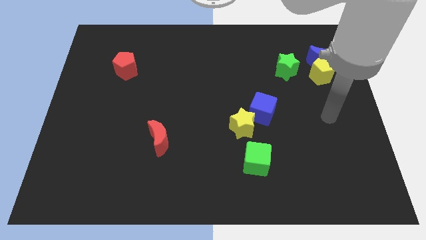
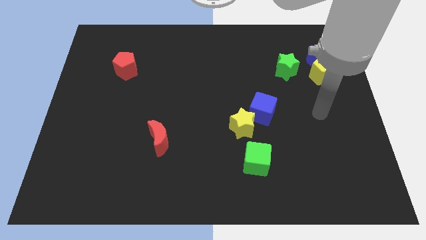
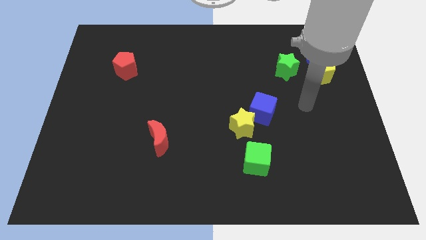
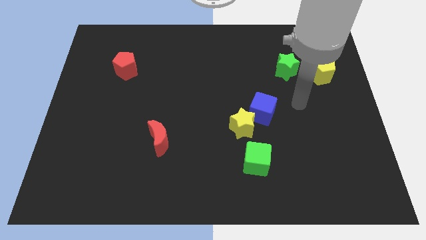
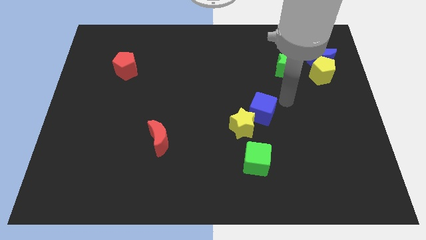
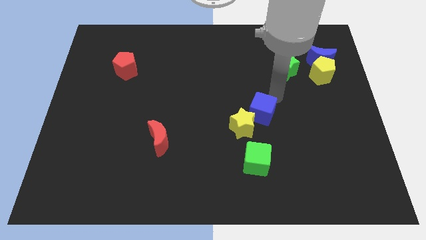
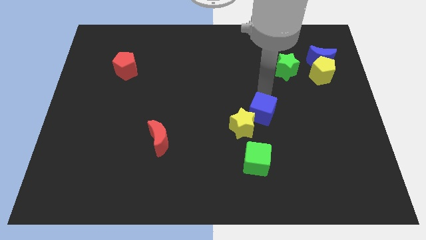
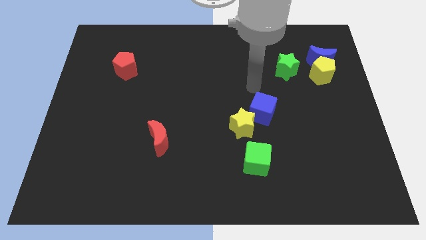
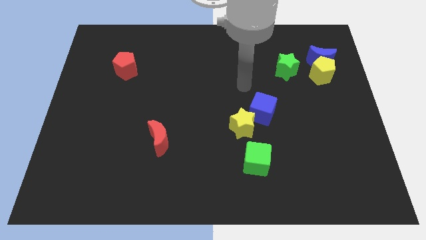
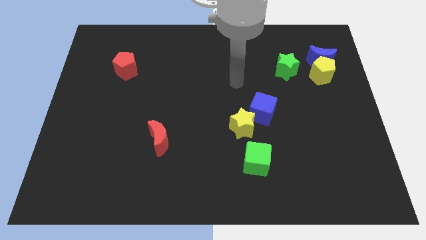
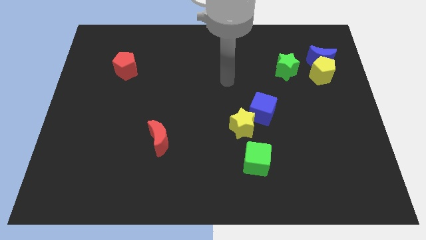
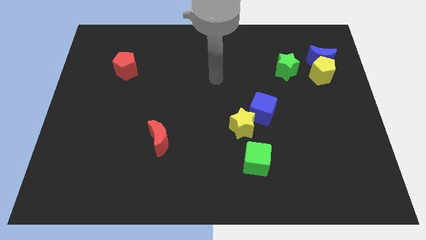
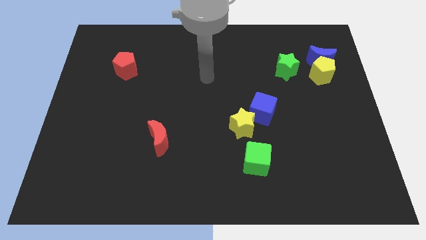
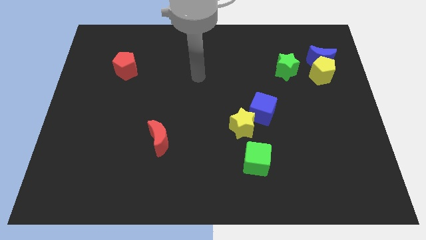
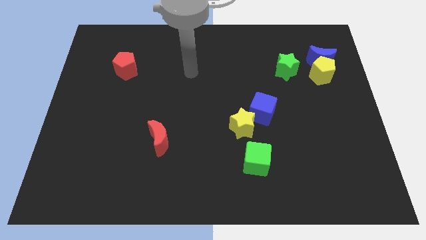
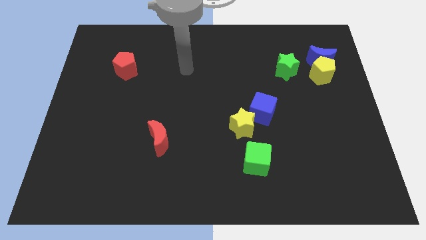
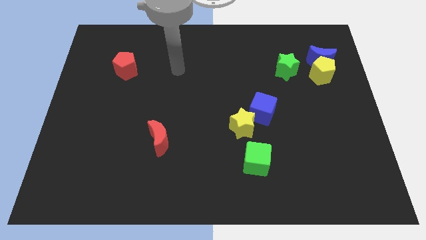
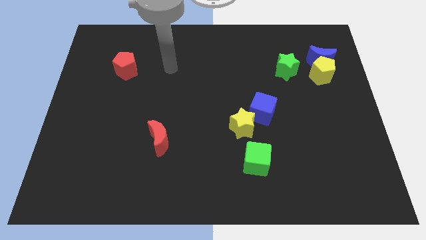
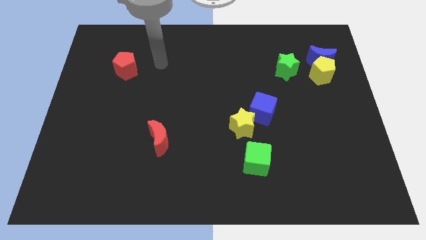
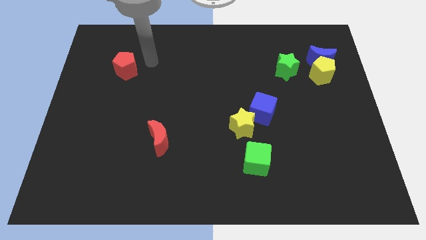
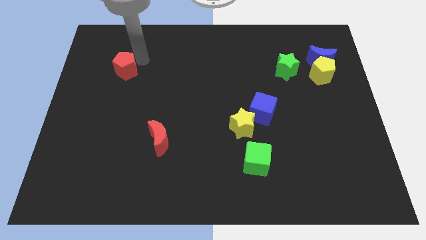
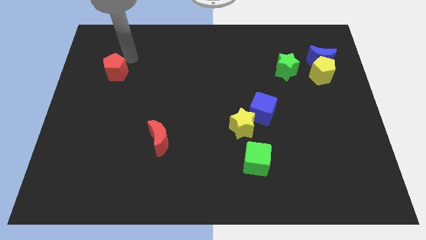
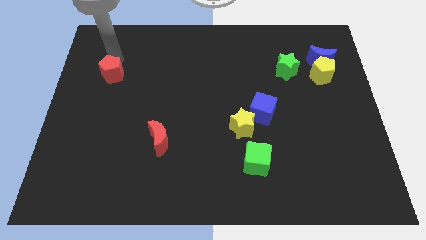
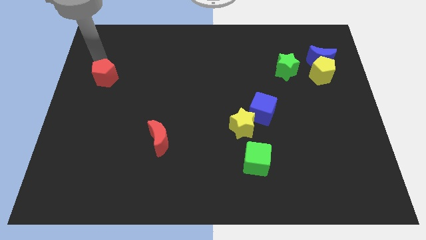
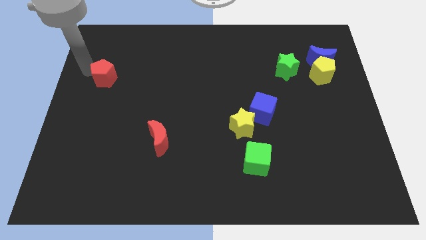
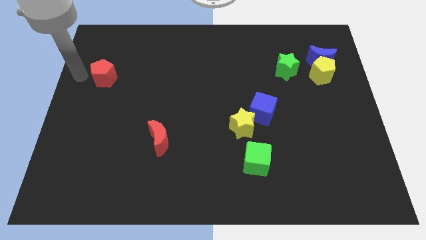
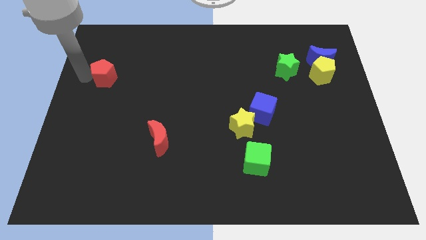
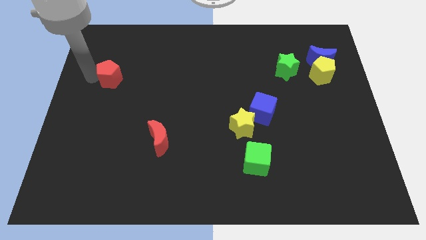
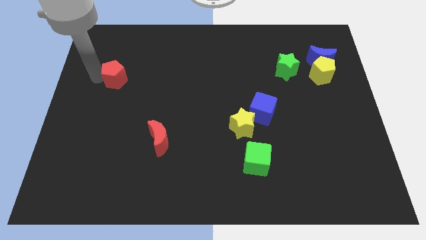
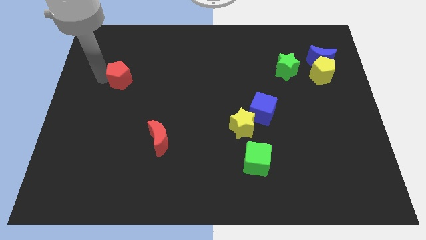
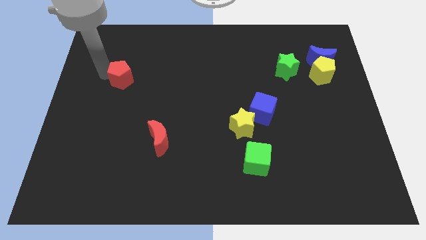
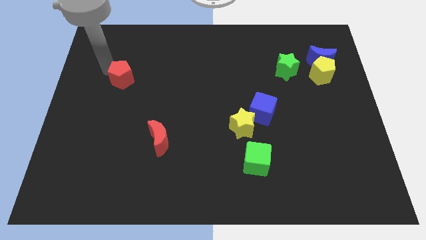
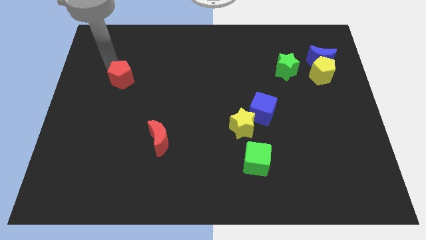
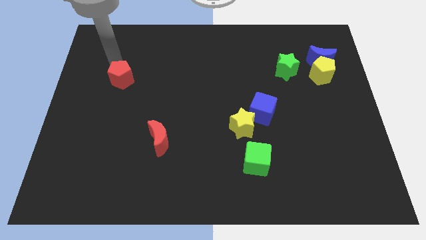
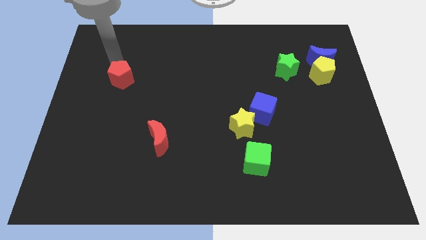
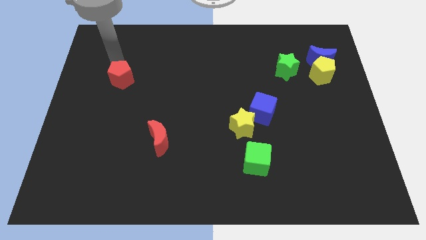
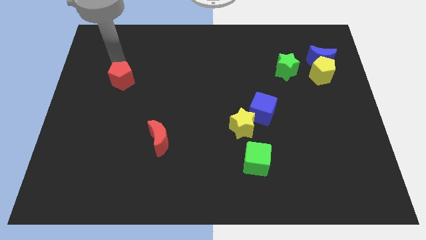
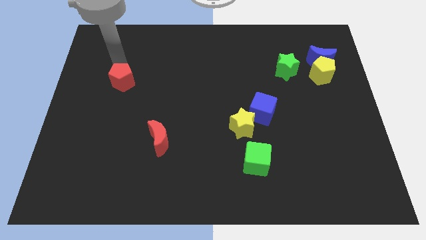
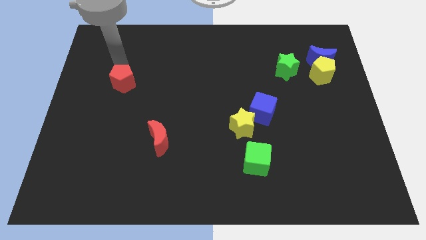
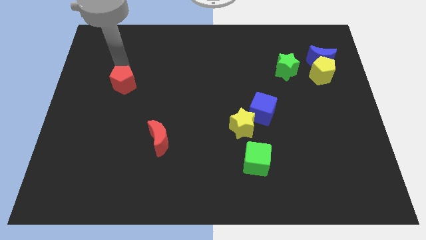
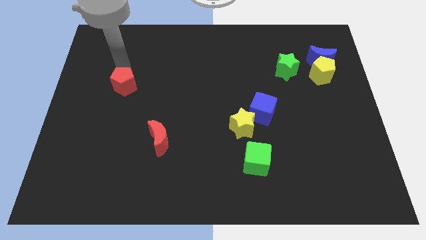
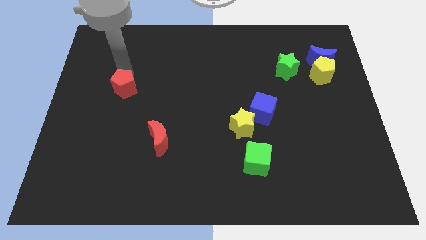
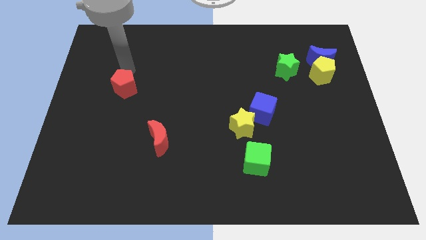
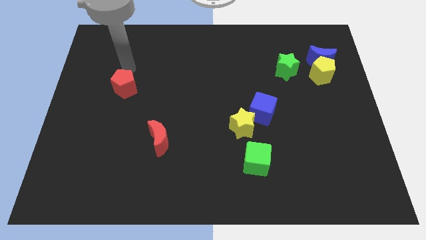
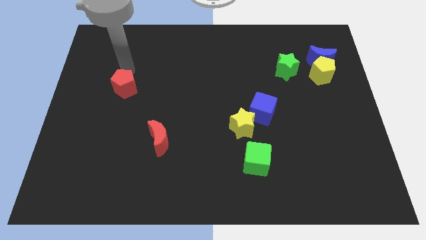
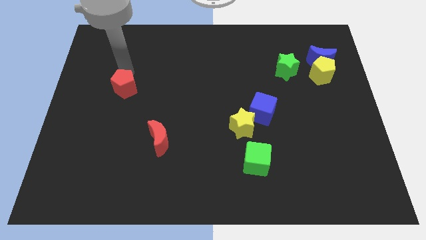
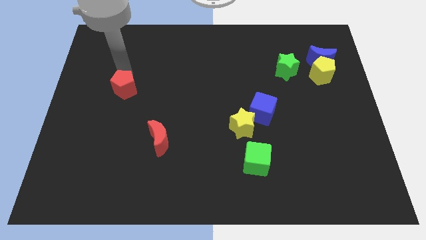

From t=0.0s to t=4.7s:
slightly slide the red pentagon downwards

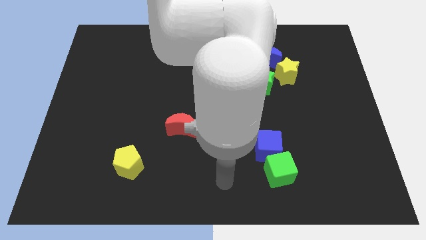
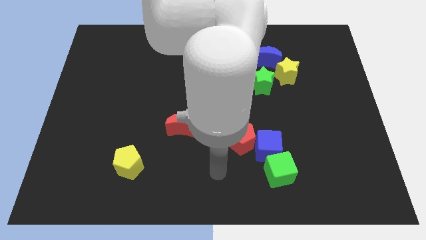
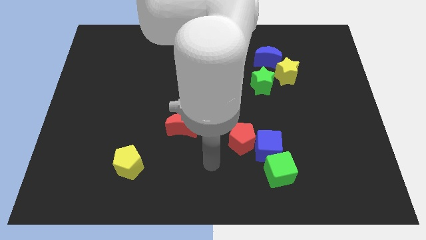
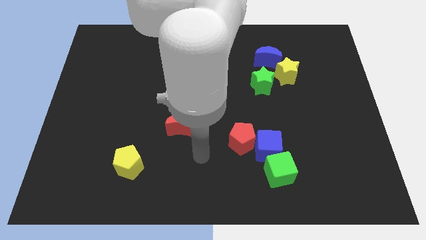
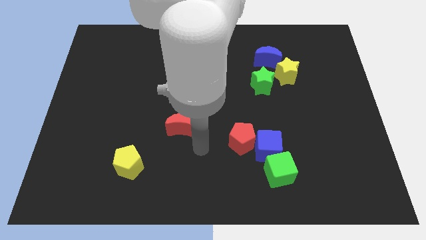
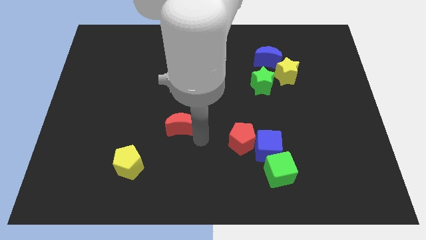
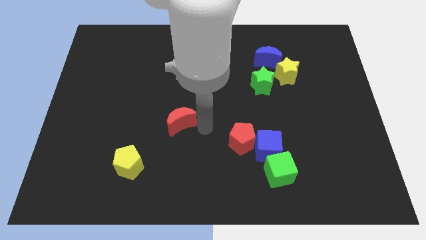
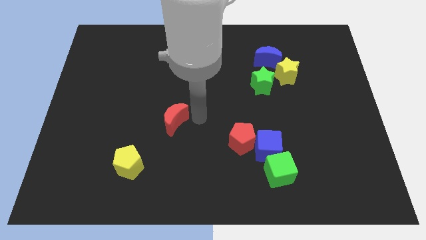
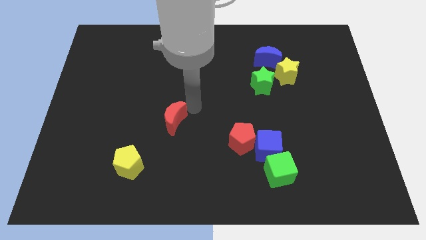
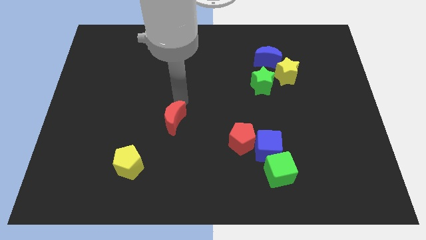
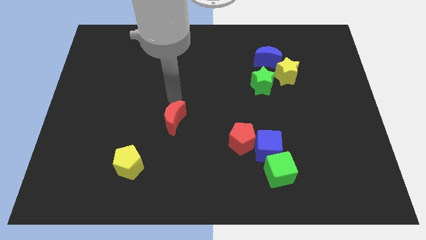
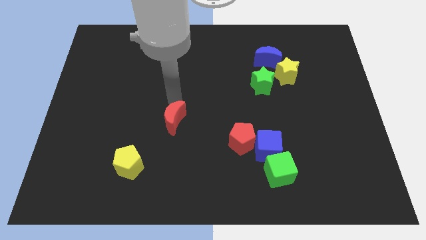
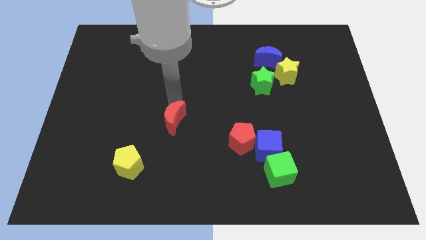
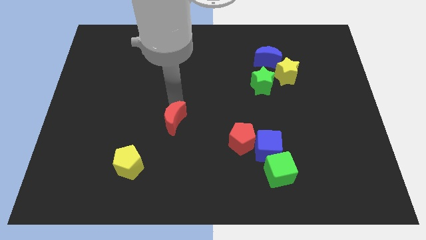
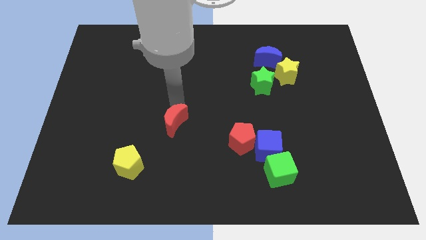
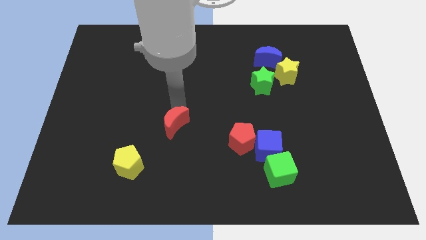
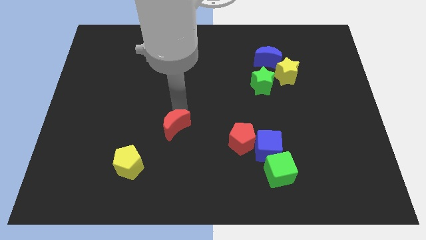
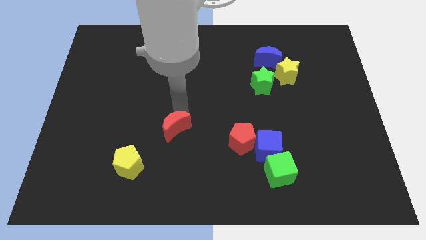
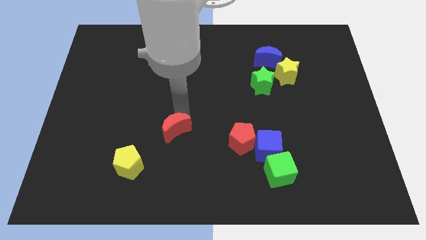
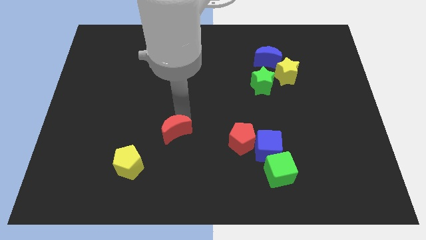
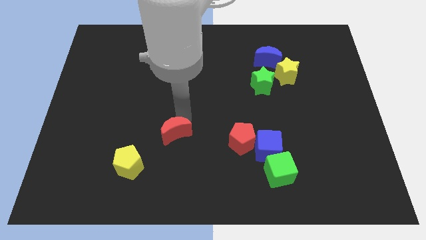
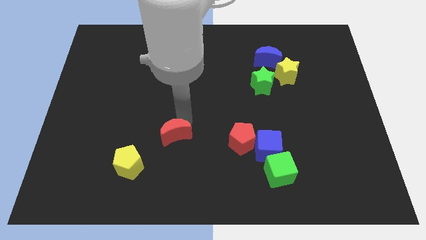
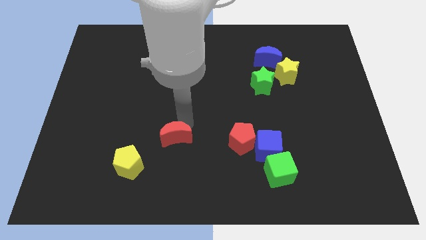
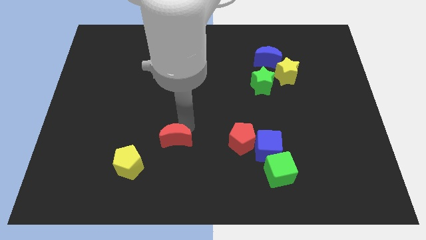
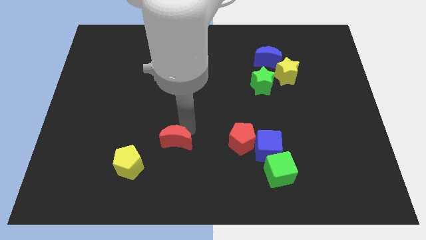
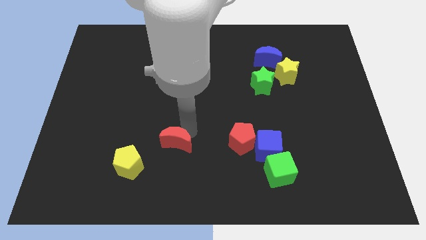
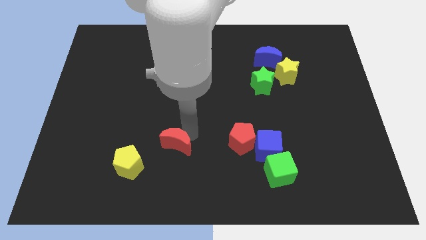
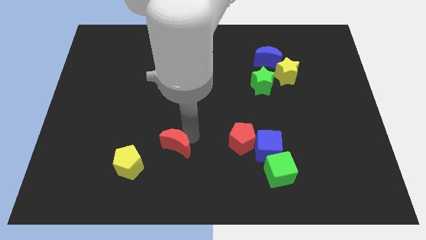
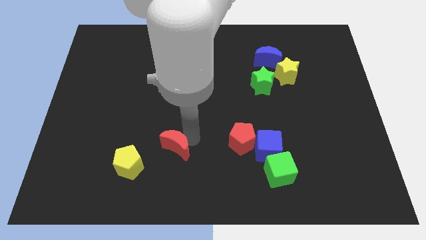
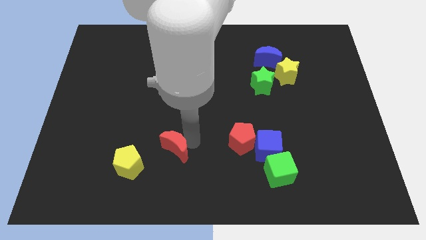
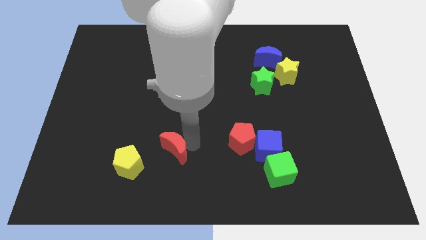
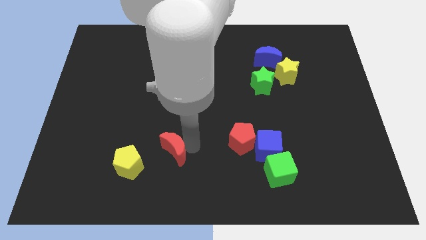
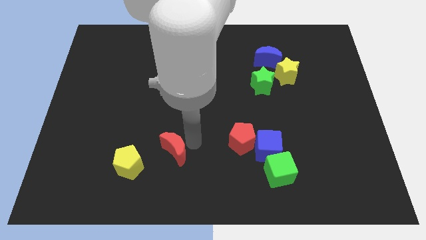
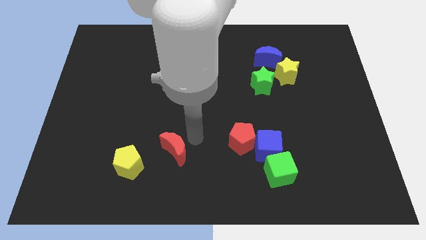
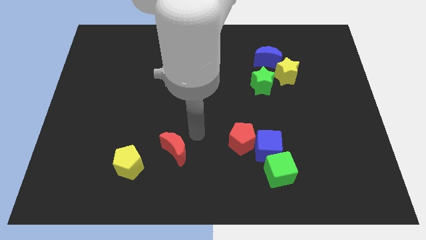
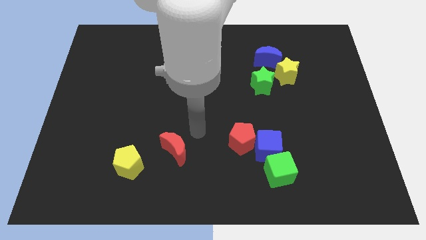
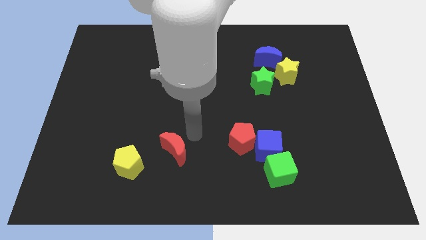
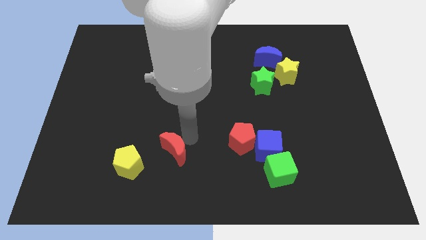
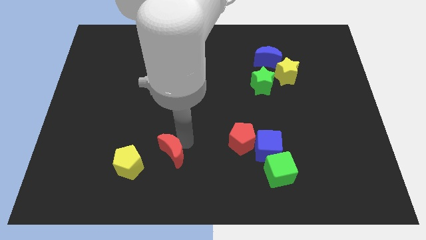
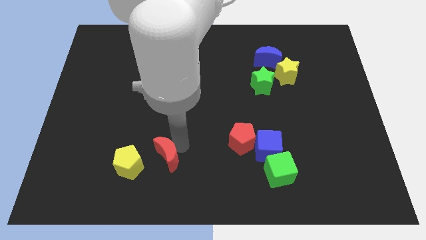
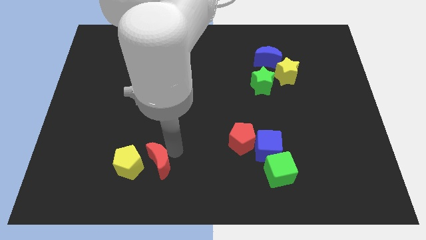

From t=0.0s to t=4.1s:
slightly slide the red moon diagonally down and to the left

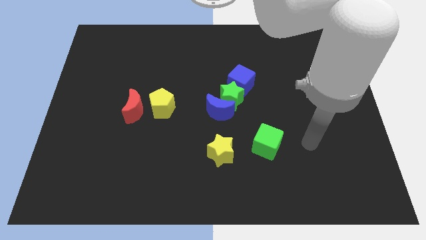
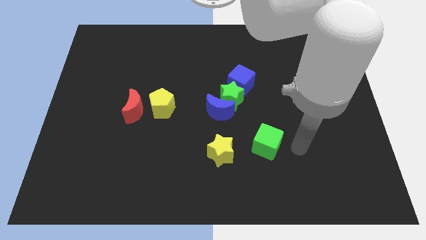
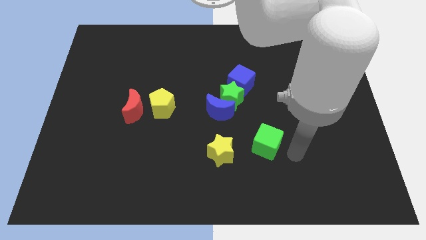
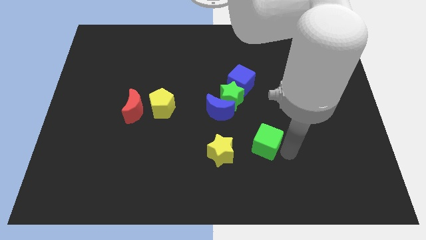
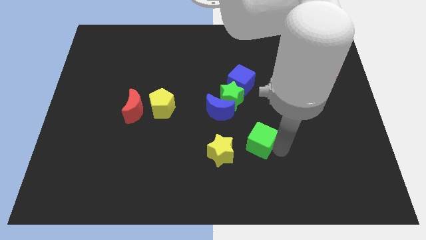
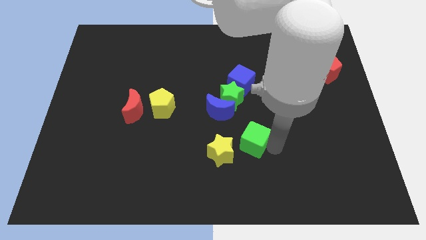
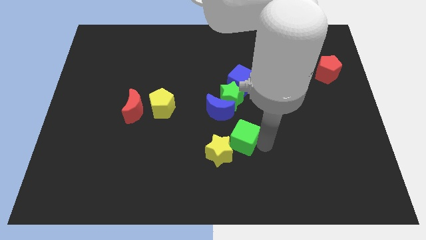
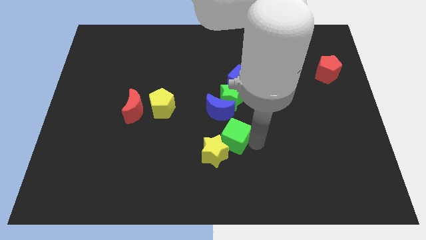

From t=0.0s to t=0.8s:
slightly move the green cube left
